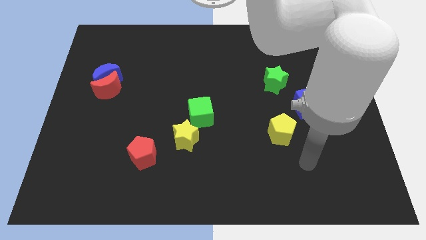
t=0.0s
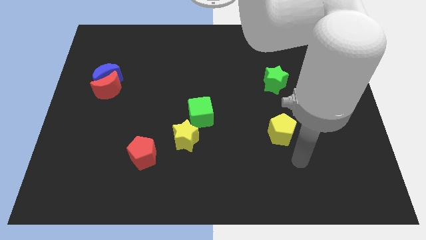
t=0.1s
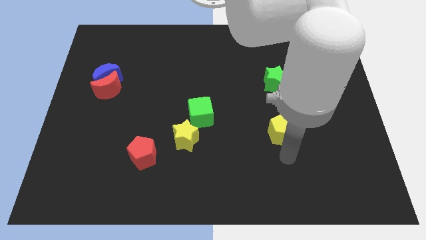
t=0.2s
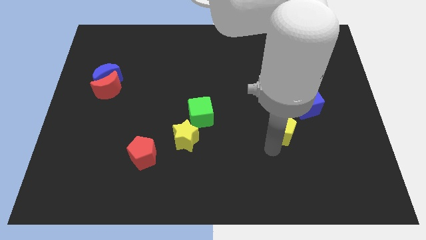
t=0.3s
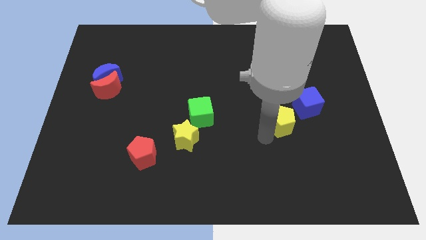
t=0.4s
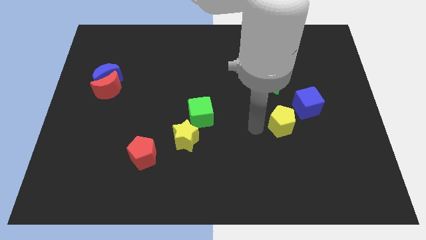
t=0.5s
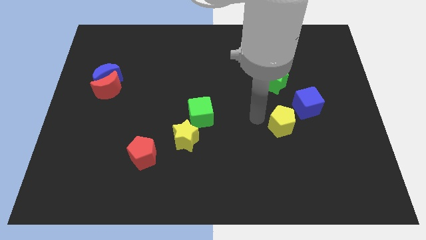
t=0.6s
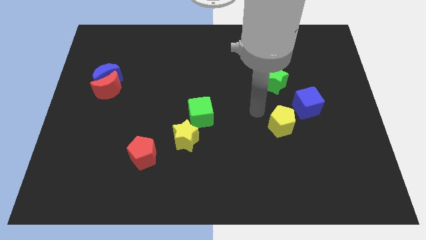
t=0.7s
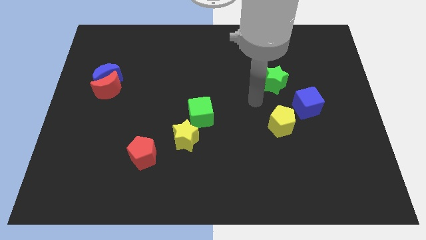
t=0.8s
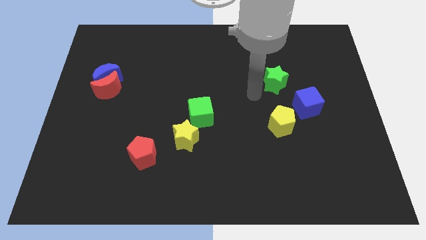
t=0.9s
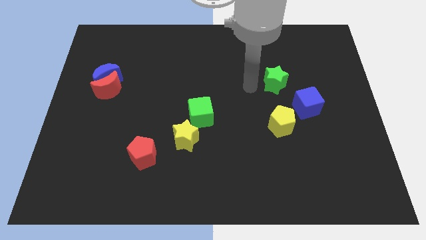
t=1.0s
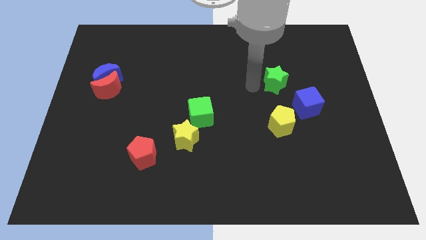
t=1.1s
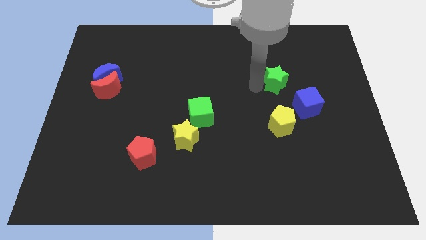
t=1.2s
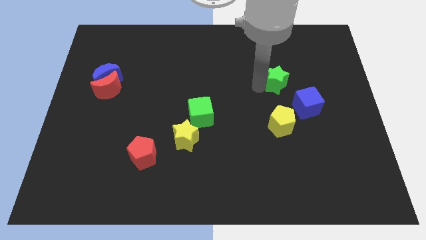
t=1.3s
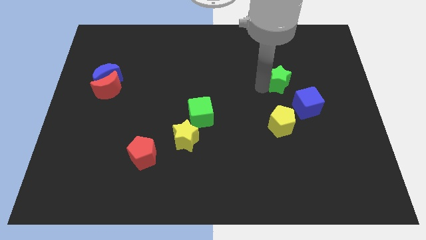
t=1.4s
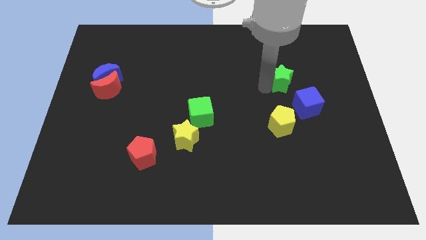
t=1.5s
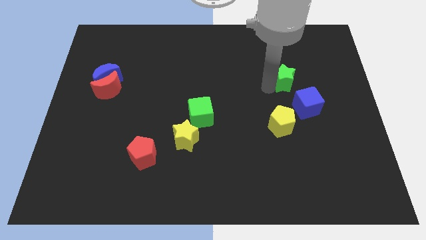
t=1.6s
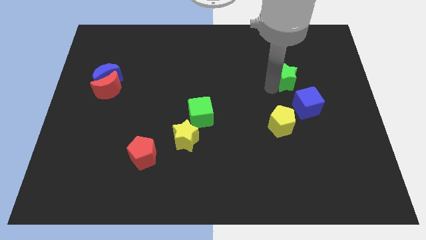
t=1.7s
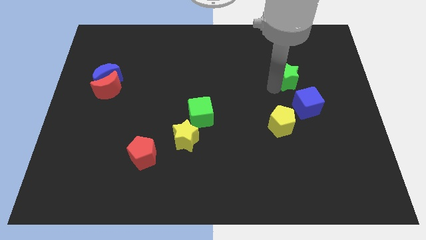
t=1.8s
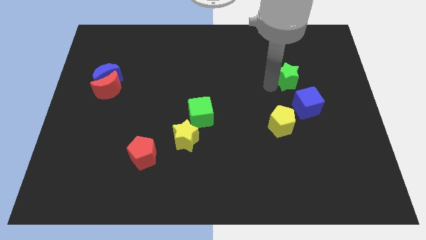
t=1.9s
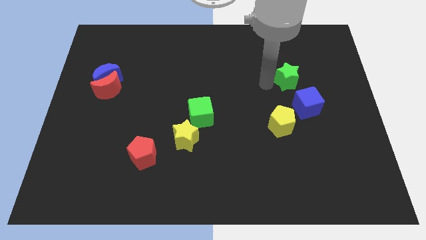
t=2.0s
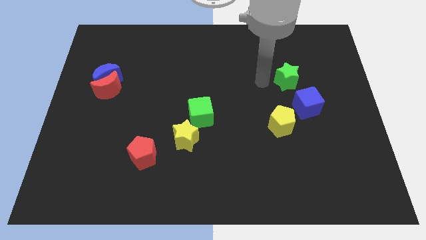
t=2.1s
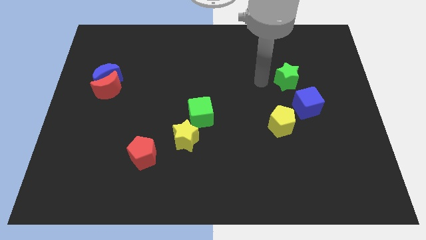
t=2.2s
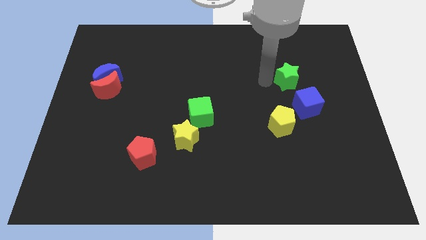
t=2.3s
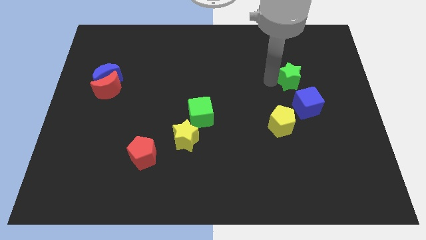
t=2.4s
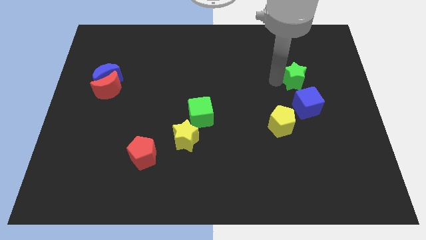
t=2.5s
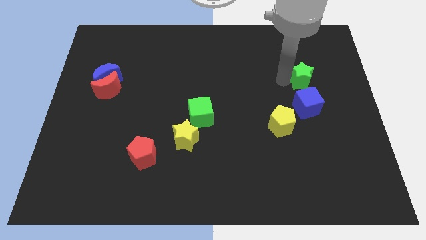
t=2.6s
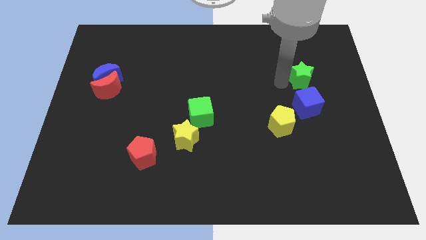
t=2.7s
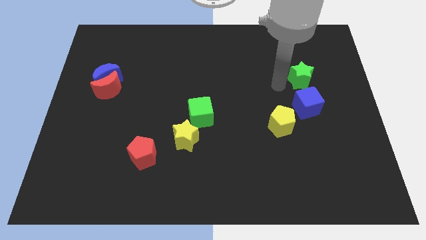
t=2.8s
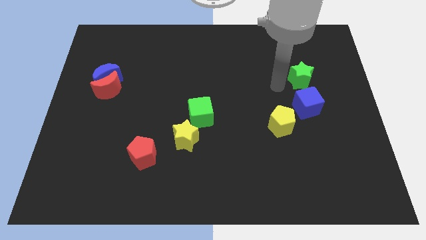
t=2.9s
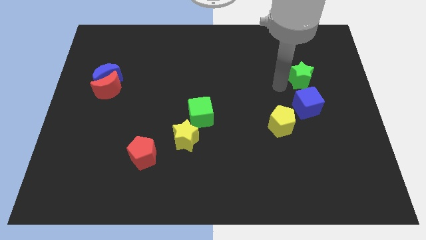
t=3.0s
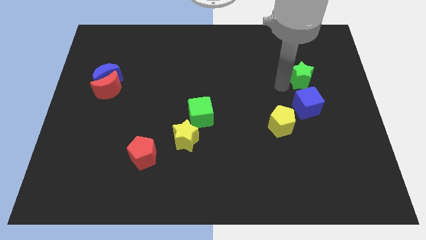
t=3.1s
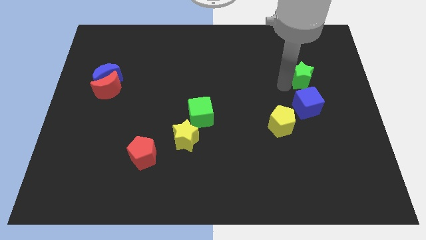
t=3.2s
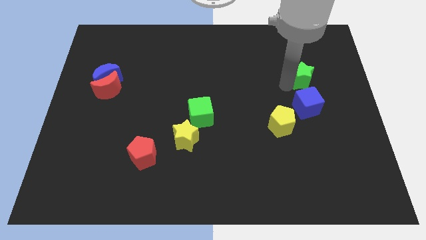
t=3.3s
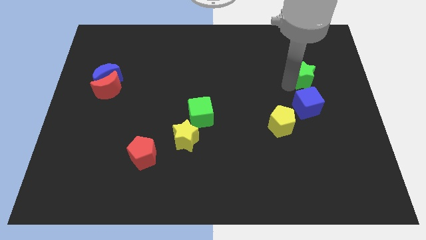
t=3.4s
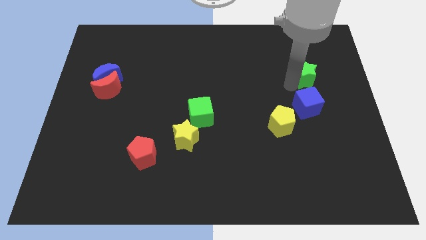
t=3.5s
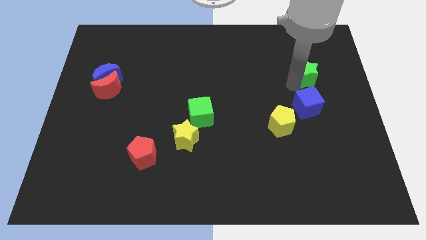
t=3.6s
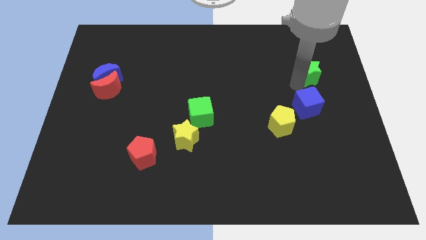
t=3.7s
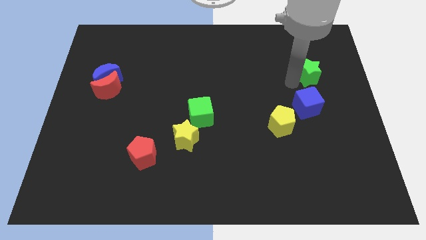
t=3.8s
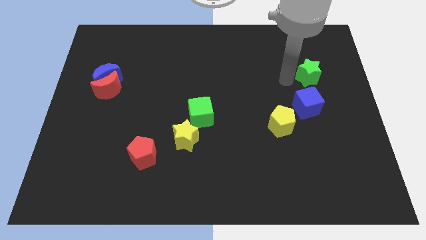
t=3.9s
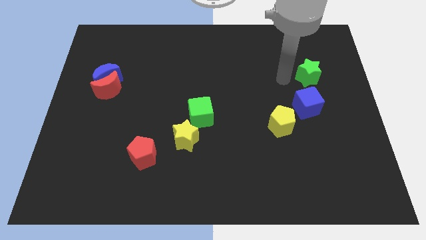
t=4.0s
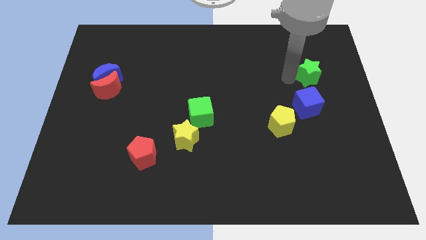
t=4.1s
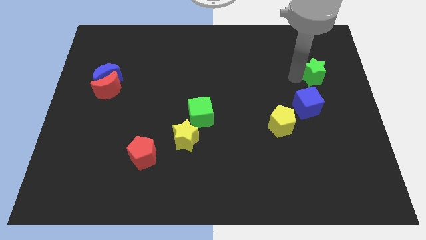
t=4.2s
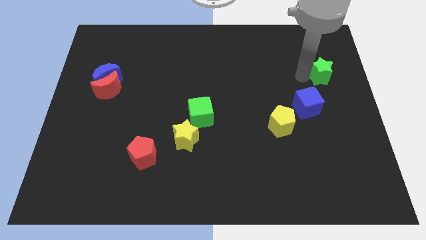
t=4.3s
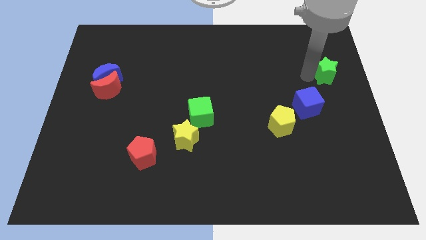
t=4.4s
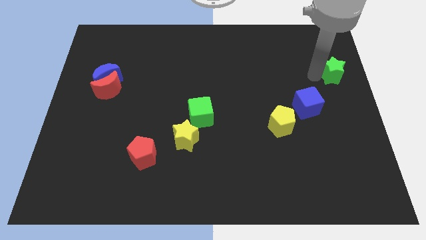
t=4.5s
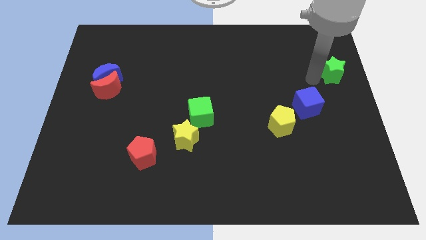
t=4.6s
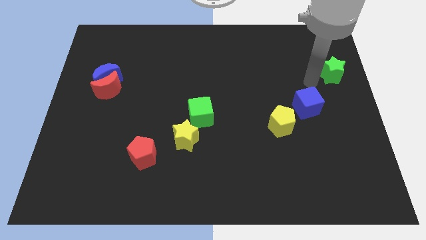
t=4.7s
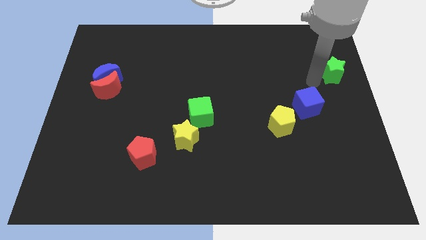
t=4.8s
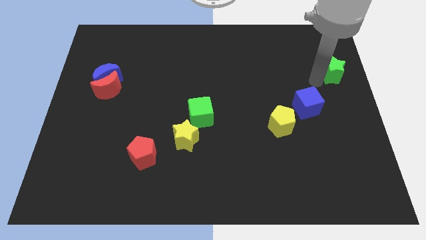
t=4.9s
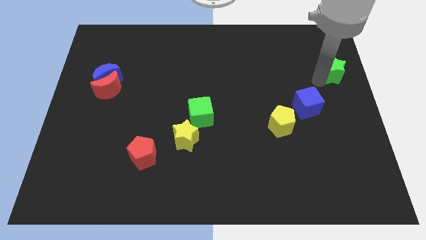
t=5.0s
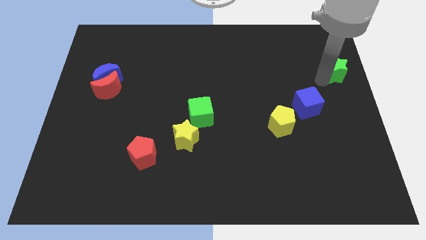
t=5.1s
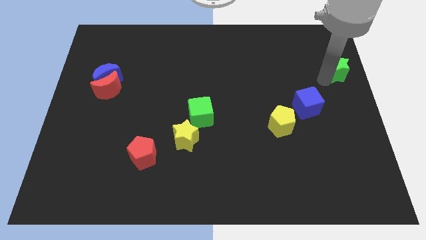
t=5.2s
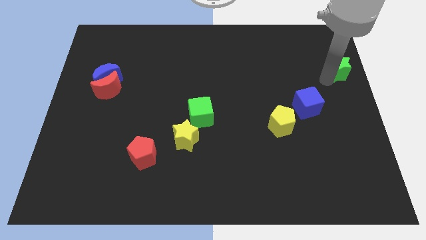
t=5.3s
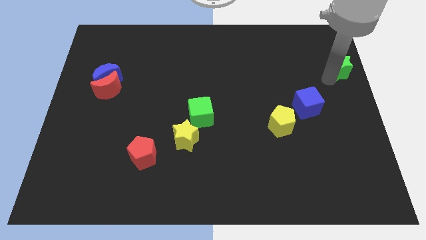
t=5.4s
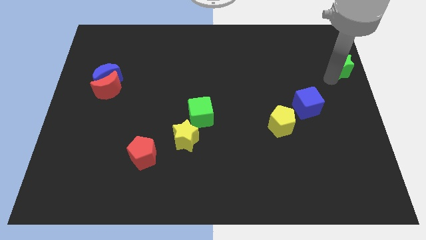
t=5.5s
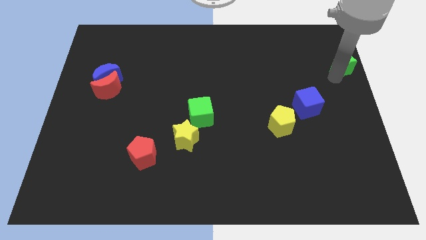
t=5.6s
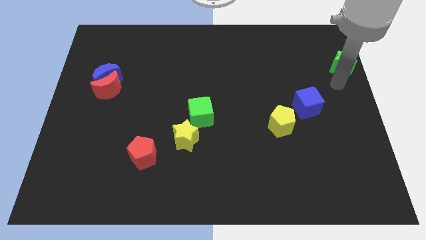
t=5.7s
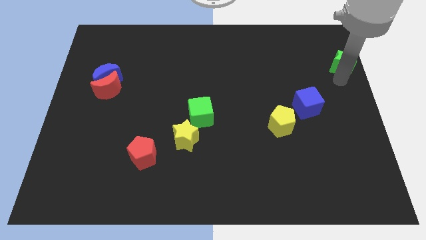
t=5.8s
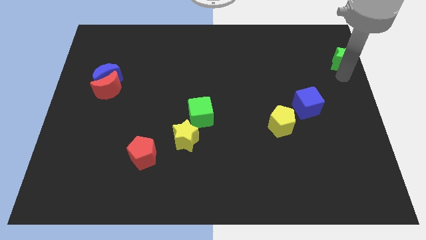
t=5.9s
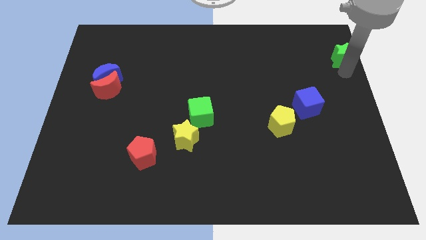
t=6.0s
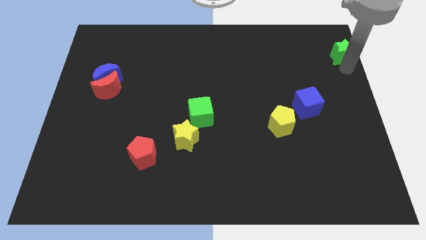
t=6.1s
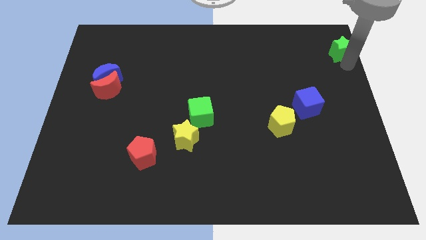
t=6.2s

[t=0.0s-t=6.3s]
push the green star to the top right

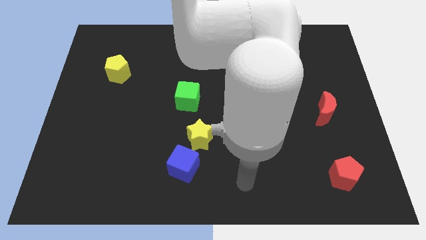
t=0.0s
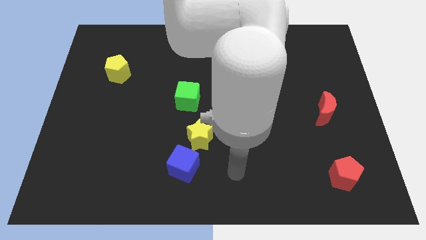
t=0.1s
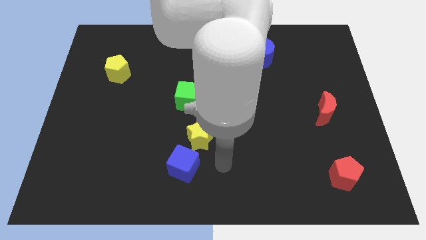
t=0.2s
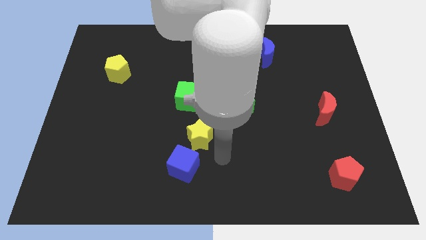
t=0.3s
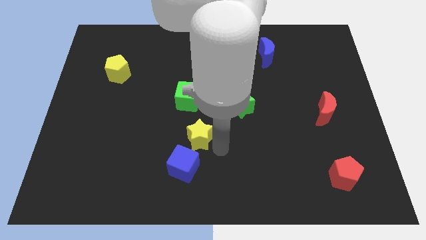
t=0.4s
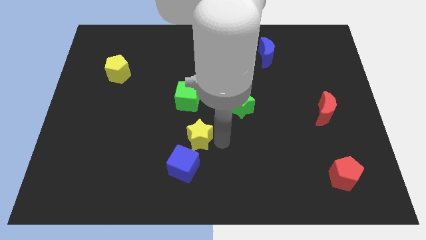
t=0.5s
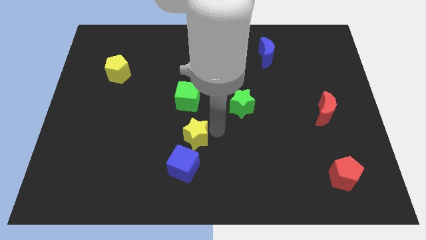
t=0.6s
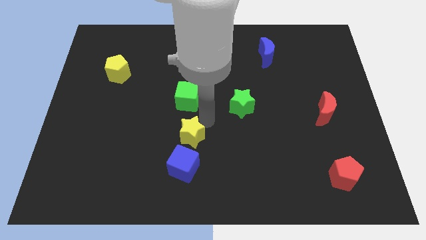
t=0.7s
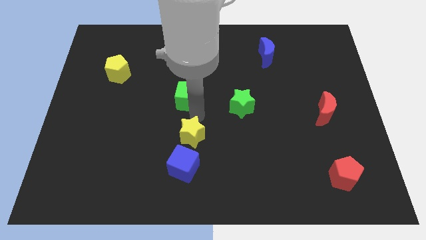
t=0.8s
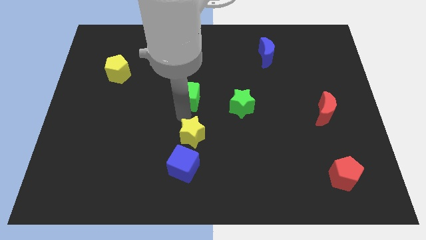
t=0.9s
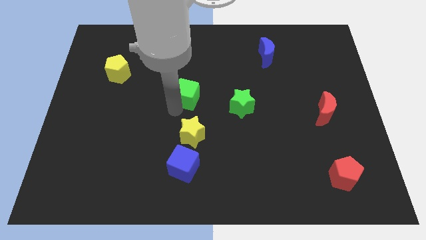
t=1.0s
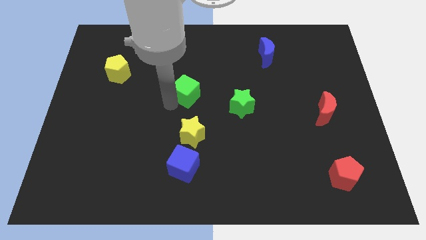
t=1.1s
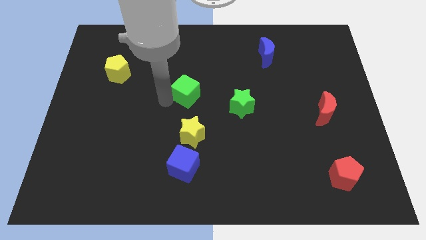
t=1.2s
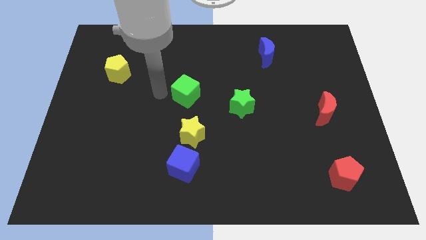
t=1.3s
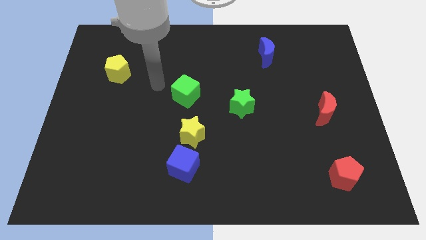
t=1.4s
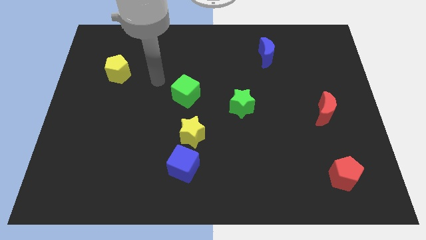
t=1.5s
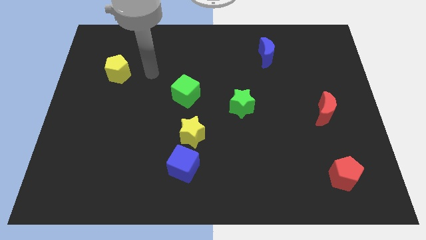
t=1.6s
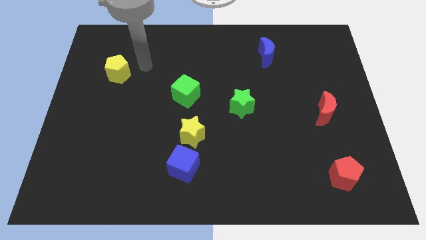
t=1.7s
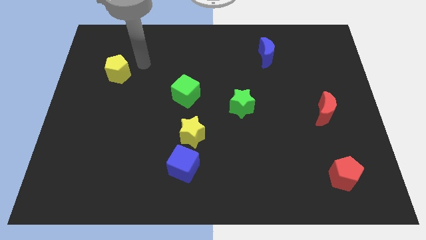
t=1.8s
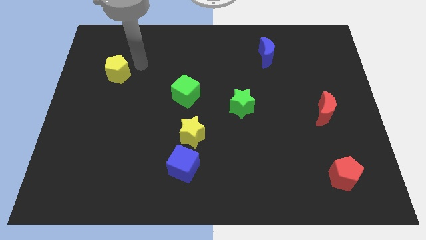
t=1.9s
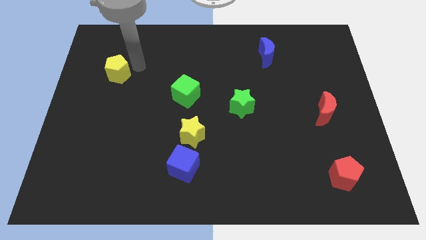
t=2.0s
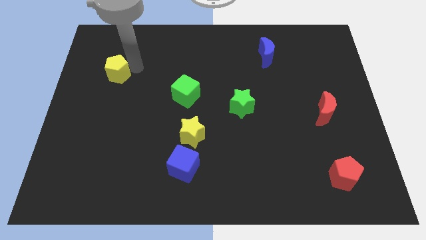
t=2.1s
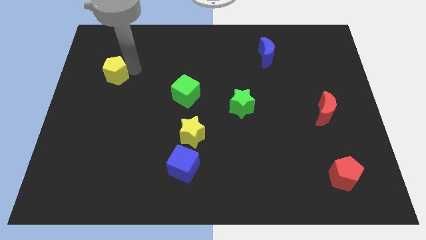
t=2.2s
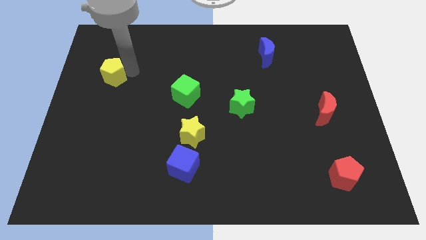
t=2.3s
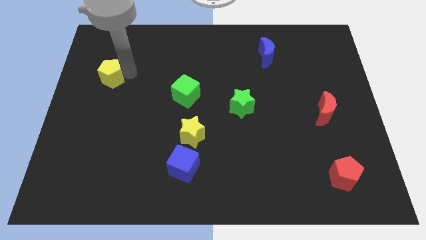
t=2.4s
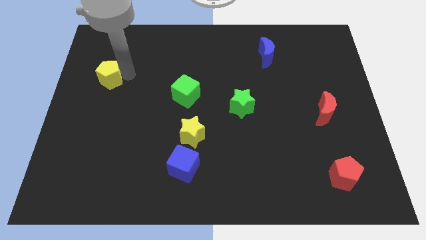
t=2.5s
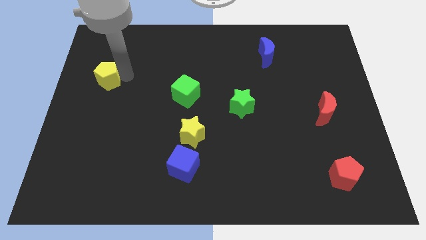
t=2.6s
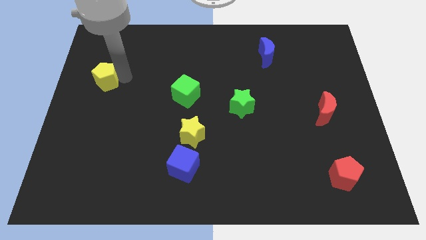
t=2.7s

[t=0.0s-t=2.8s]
put the yellow pentagon to the left side
